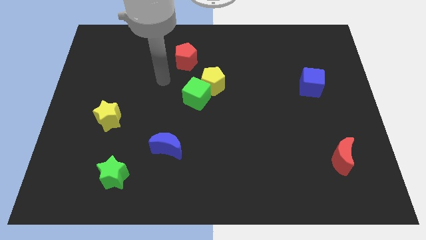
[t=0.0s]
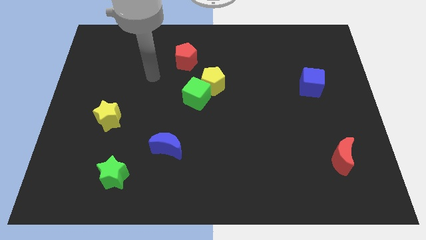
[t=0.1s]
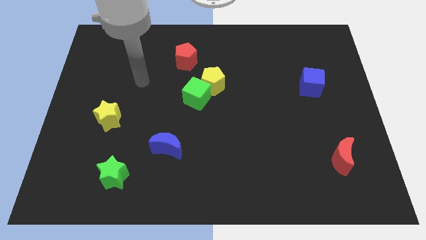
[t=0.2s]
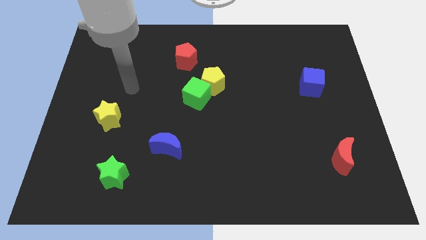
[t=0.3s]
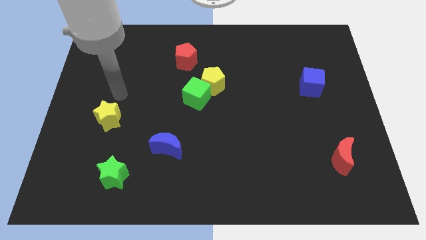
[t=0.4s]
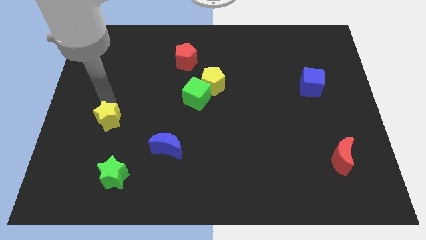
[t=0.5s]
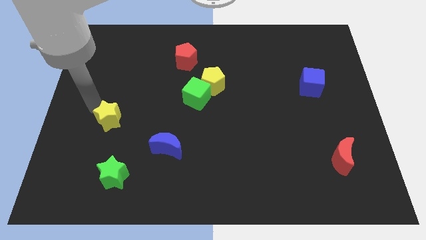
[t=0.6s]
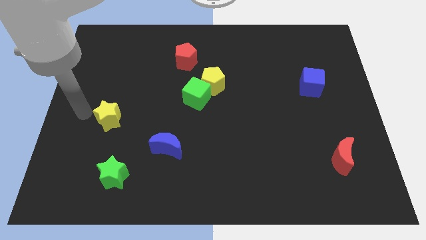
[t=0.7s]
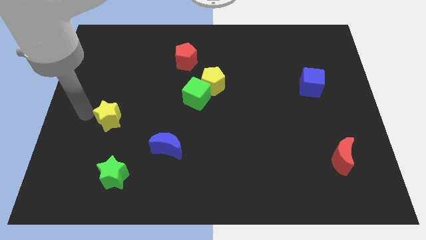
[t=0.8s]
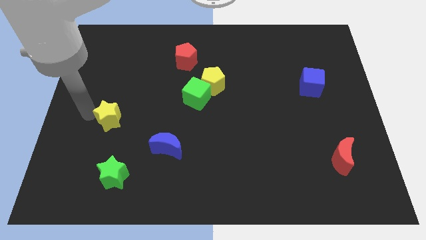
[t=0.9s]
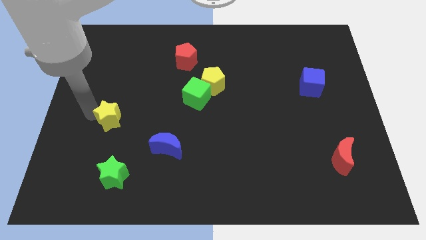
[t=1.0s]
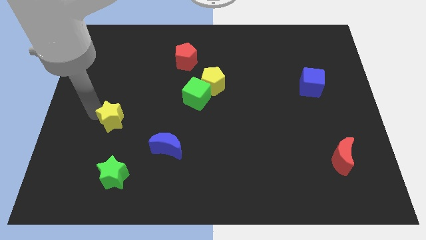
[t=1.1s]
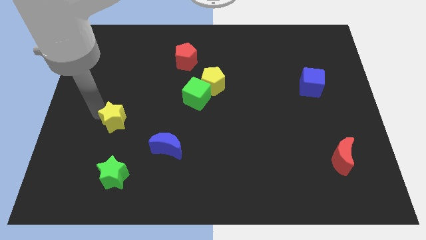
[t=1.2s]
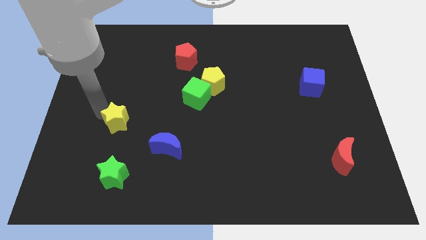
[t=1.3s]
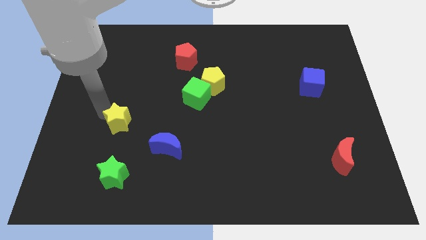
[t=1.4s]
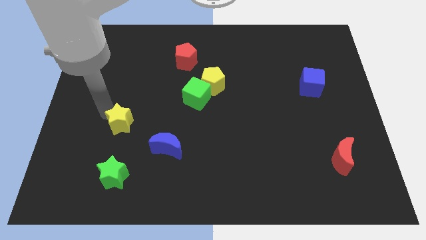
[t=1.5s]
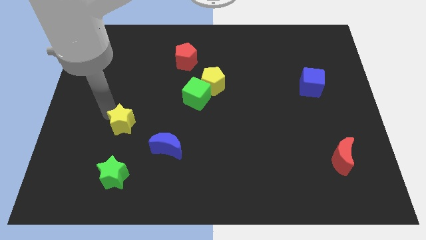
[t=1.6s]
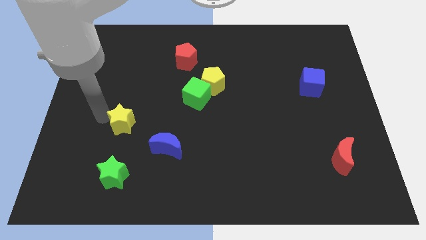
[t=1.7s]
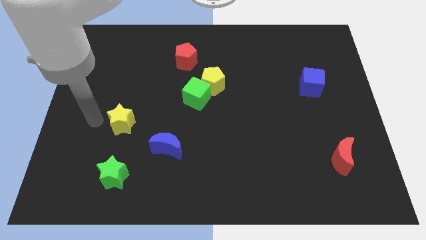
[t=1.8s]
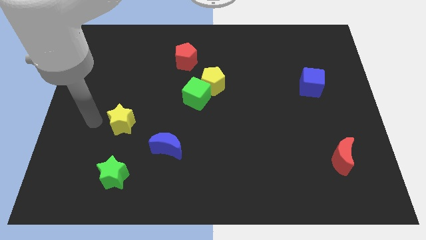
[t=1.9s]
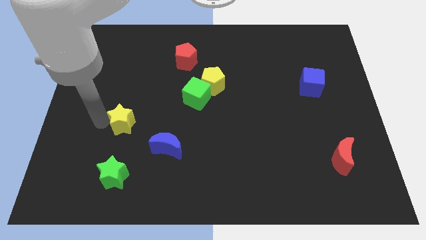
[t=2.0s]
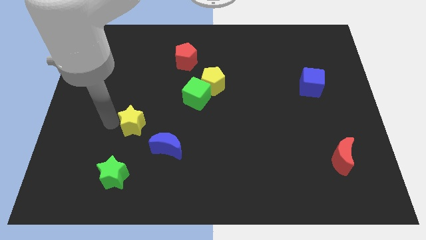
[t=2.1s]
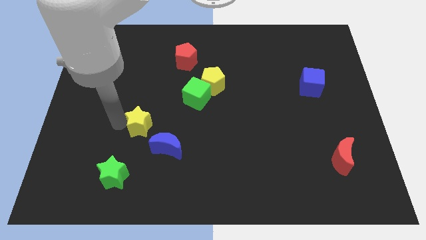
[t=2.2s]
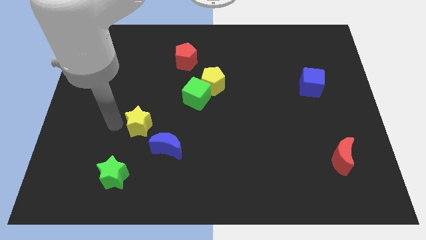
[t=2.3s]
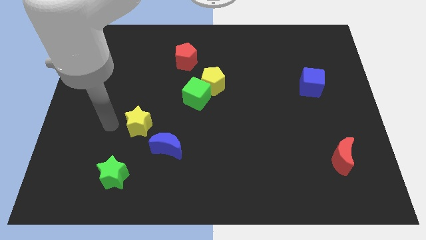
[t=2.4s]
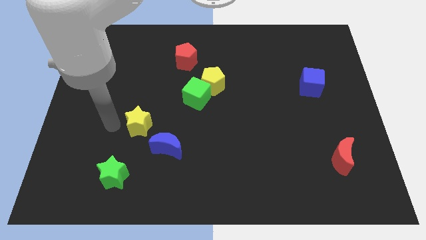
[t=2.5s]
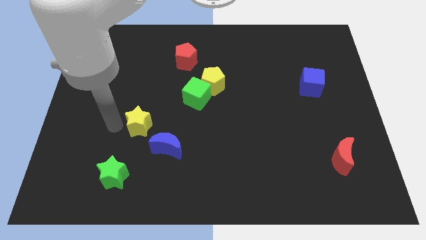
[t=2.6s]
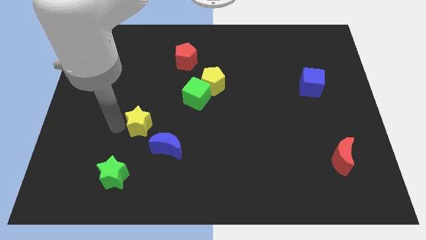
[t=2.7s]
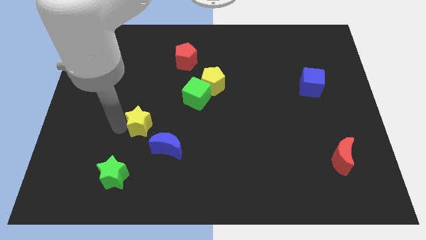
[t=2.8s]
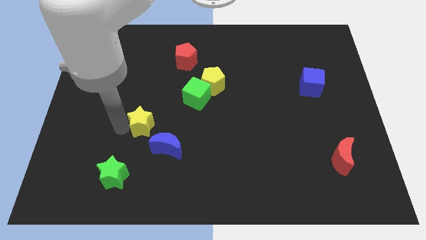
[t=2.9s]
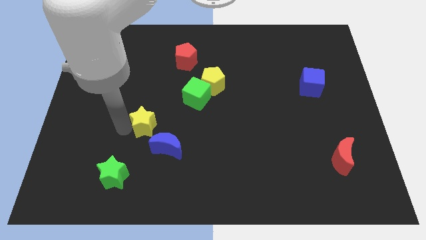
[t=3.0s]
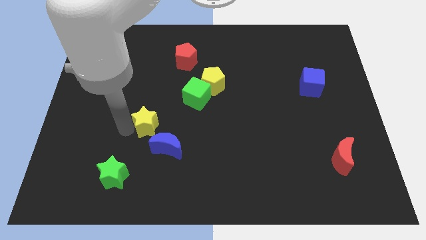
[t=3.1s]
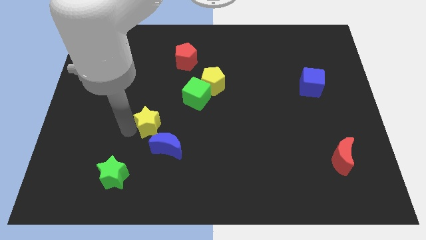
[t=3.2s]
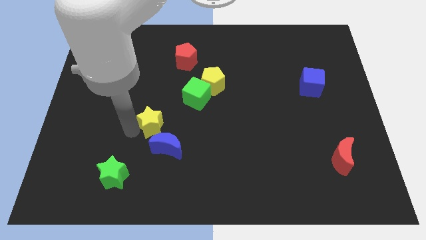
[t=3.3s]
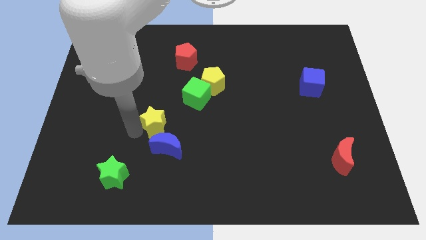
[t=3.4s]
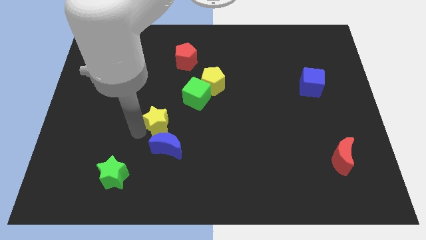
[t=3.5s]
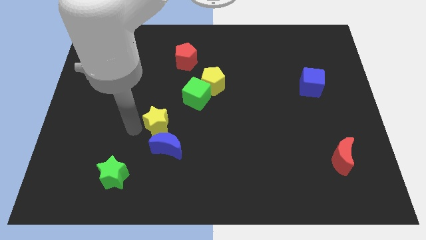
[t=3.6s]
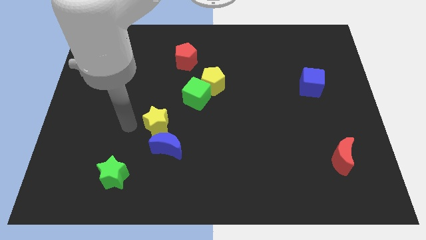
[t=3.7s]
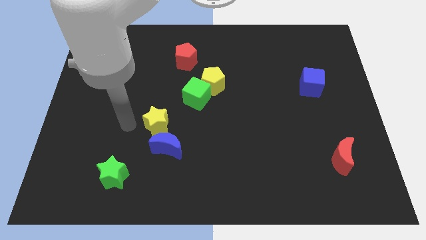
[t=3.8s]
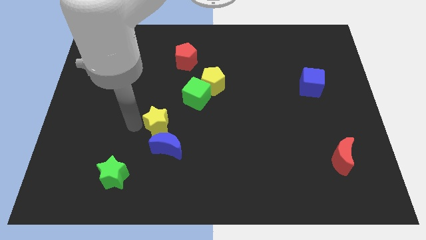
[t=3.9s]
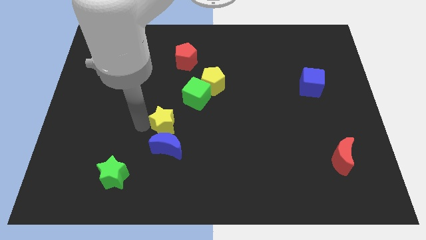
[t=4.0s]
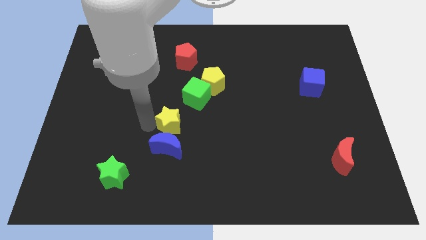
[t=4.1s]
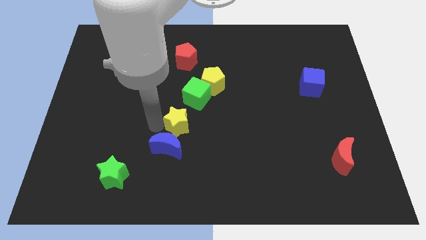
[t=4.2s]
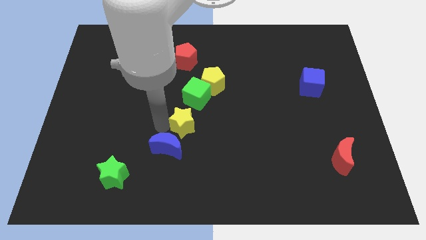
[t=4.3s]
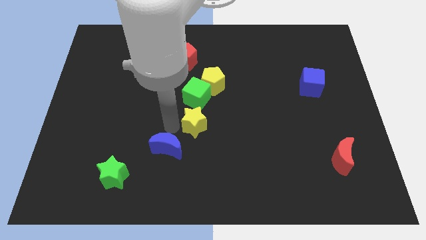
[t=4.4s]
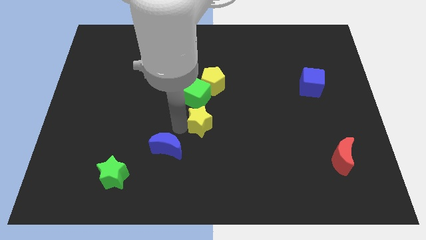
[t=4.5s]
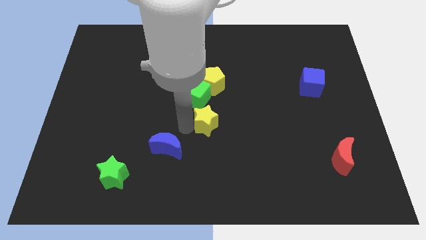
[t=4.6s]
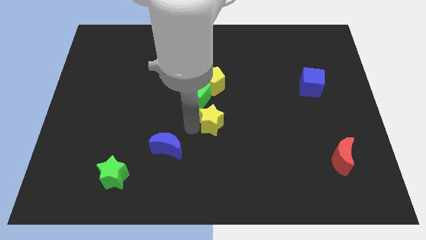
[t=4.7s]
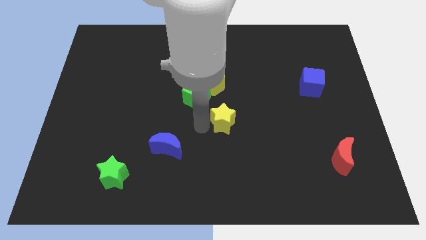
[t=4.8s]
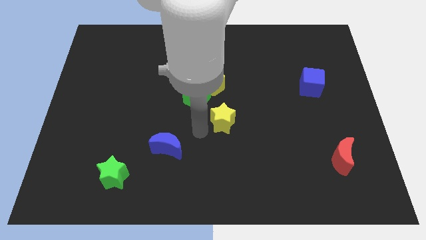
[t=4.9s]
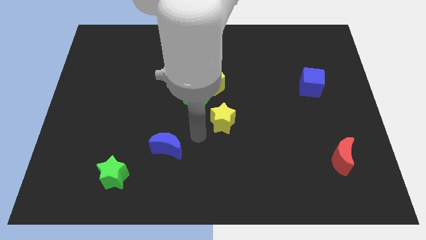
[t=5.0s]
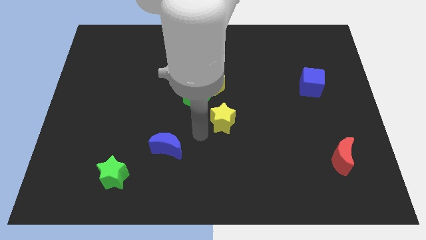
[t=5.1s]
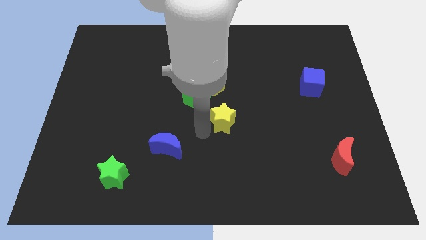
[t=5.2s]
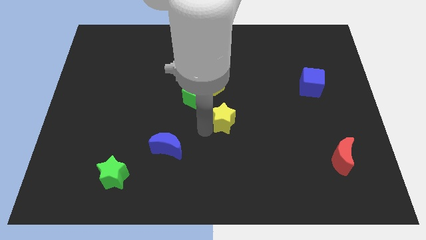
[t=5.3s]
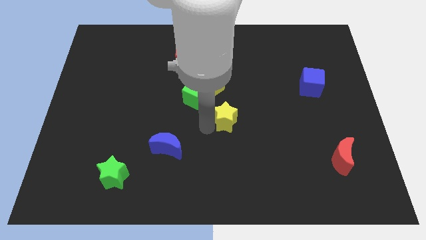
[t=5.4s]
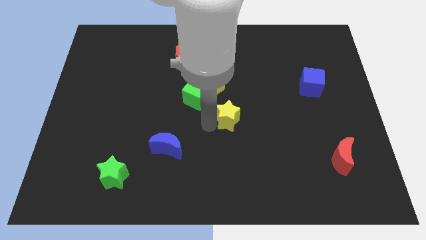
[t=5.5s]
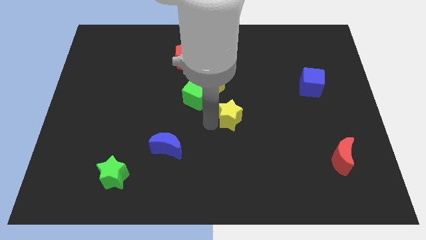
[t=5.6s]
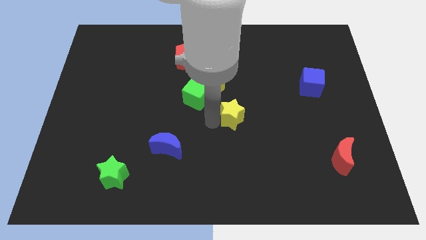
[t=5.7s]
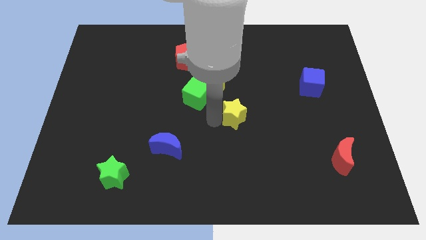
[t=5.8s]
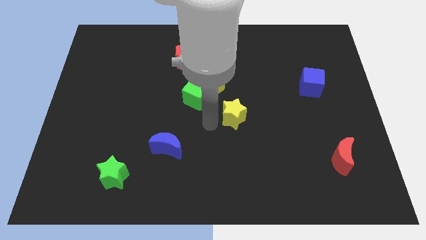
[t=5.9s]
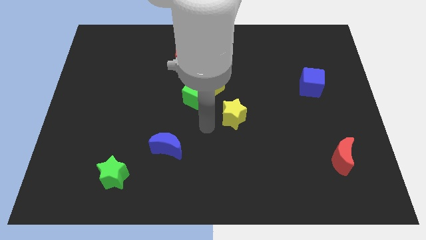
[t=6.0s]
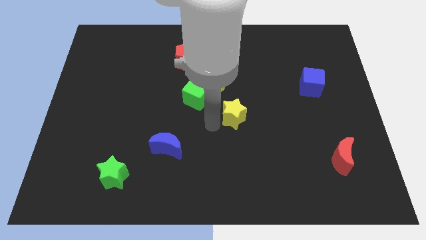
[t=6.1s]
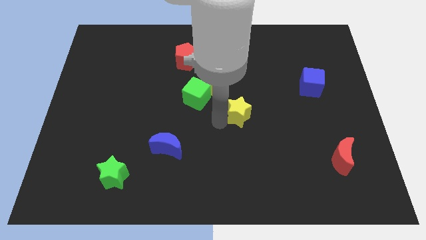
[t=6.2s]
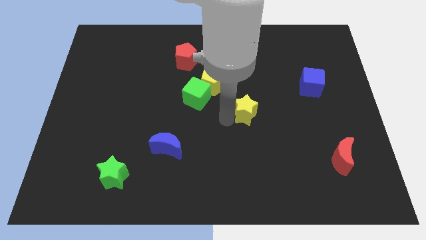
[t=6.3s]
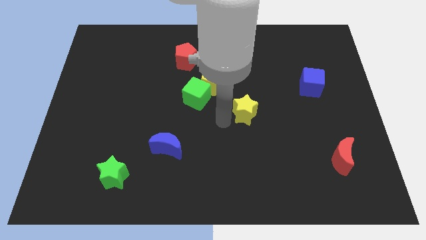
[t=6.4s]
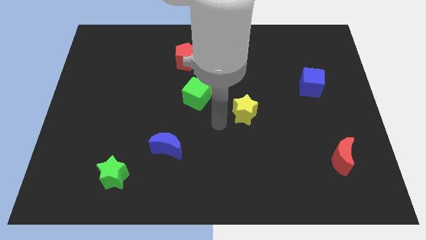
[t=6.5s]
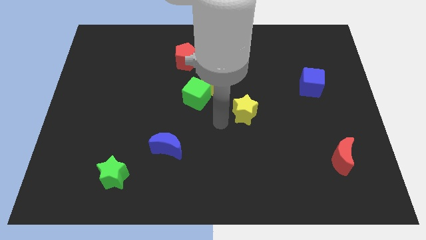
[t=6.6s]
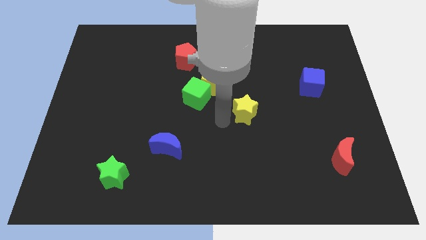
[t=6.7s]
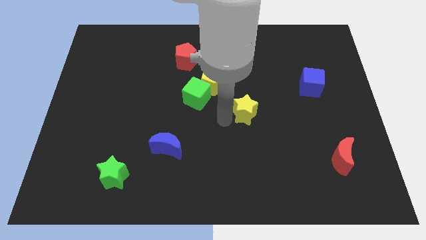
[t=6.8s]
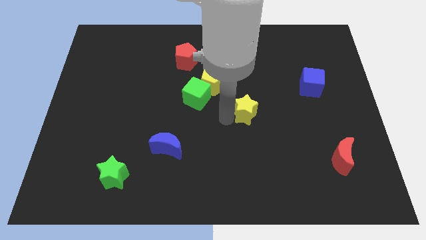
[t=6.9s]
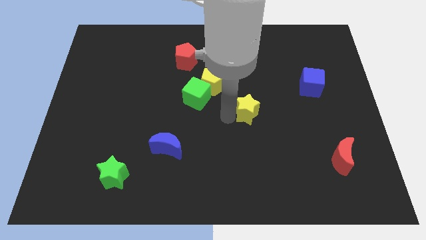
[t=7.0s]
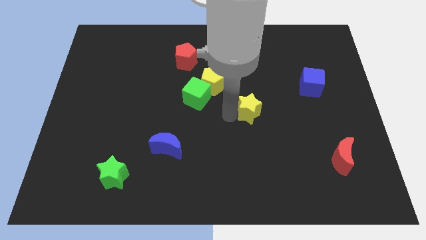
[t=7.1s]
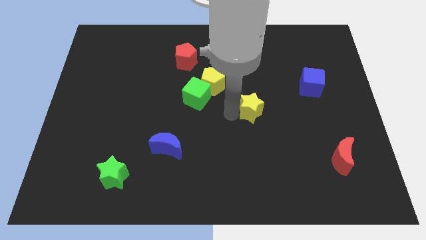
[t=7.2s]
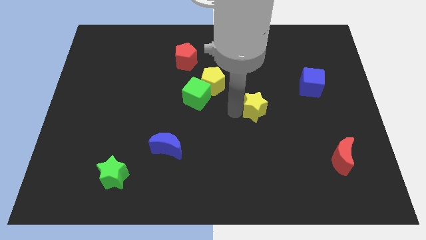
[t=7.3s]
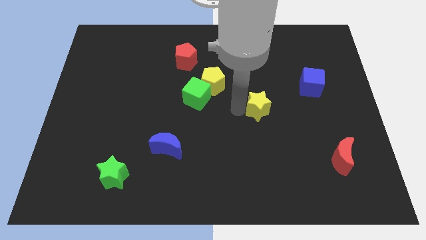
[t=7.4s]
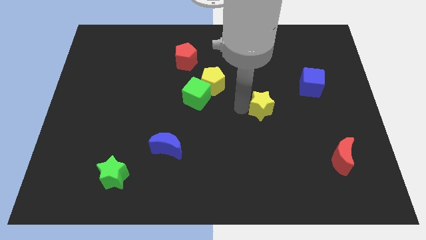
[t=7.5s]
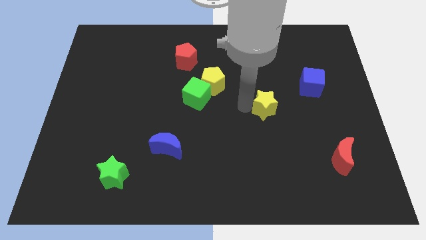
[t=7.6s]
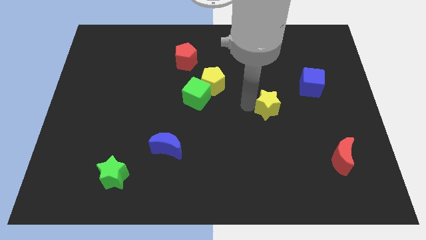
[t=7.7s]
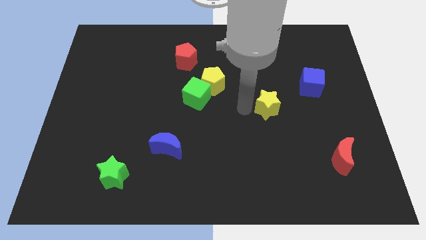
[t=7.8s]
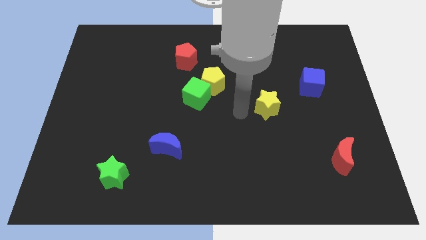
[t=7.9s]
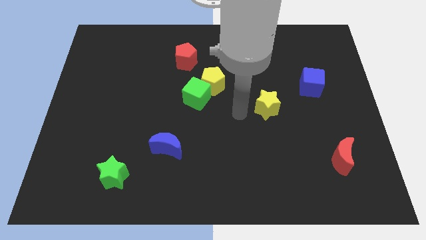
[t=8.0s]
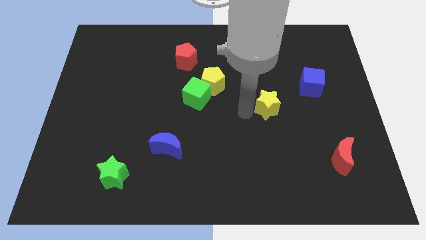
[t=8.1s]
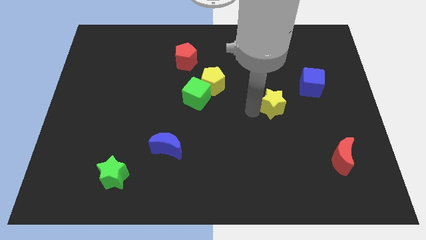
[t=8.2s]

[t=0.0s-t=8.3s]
move the yellow star to the bottom left side of the blue cube
